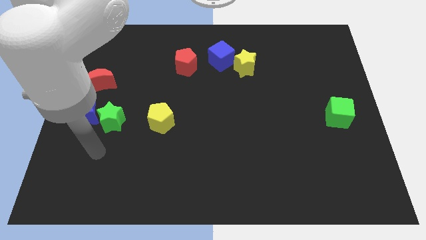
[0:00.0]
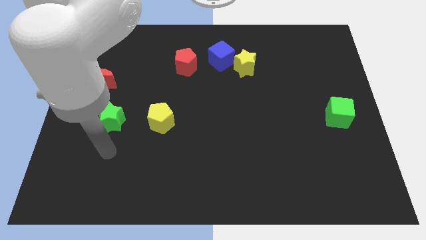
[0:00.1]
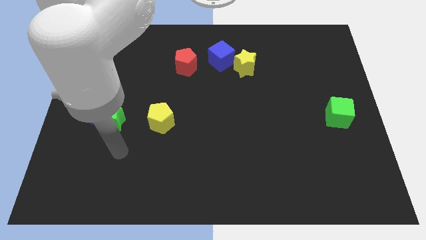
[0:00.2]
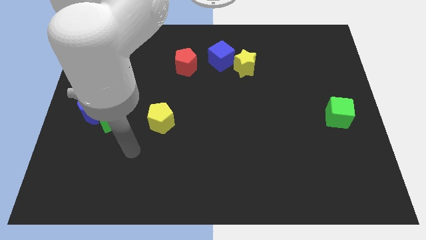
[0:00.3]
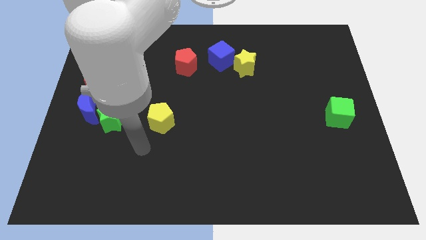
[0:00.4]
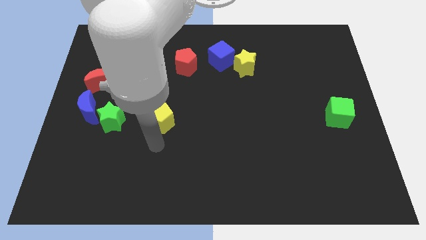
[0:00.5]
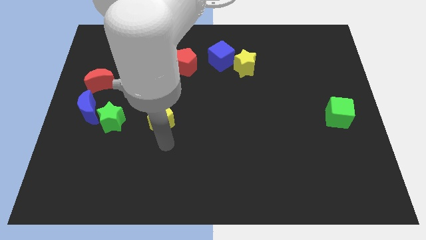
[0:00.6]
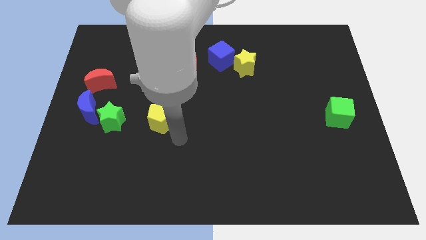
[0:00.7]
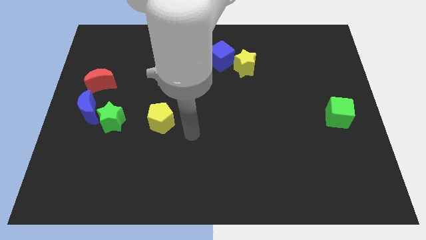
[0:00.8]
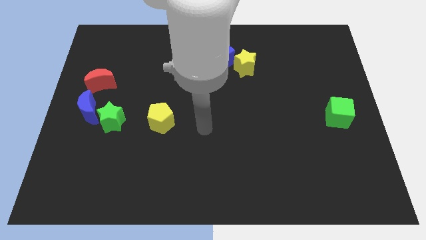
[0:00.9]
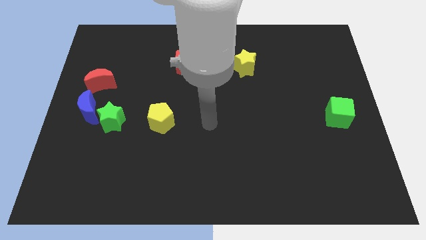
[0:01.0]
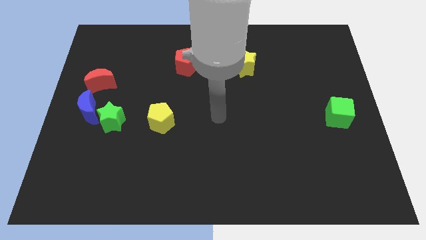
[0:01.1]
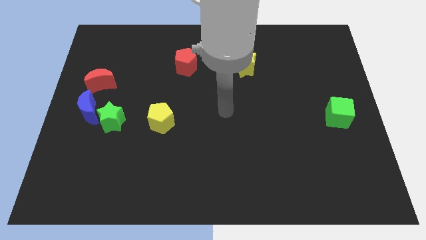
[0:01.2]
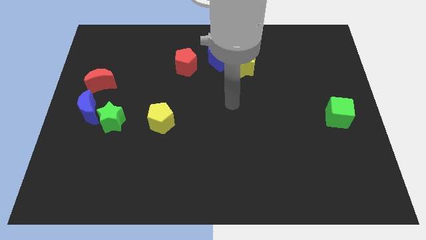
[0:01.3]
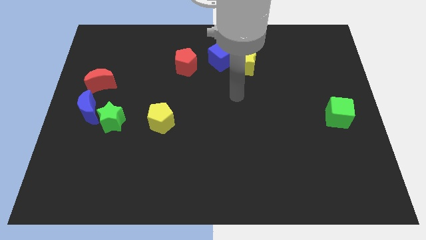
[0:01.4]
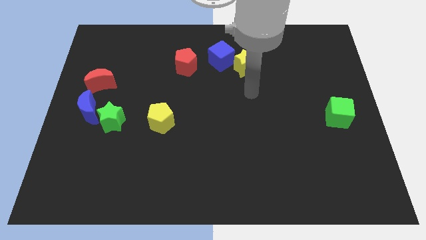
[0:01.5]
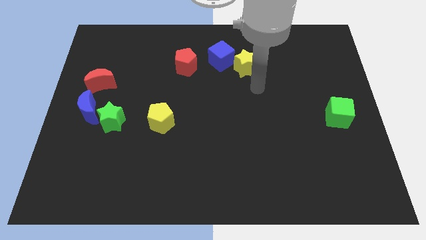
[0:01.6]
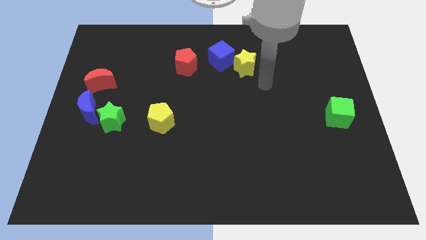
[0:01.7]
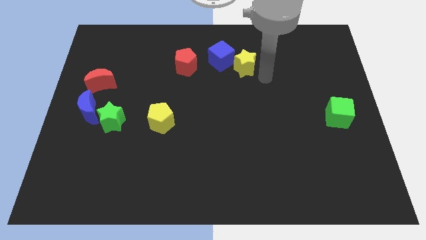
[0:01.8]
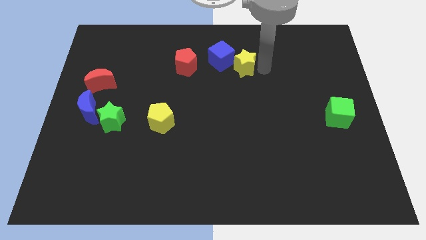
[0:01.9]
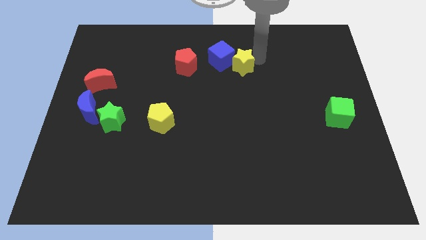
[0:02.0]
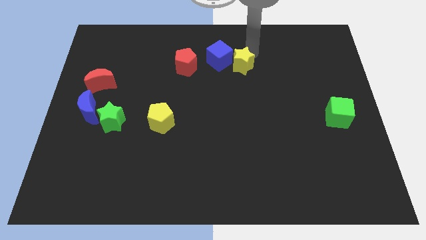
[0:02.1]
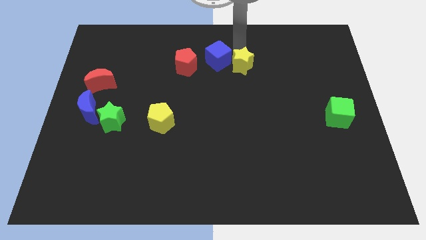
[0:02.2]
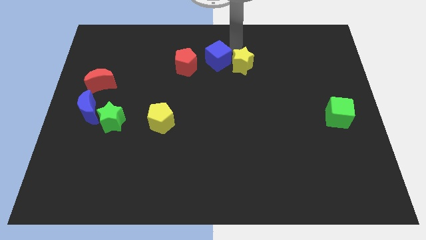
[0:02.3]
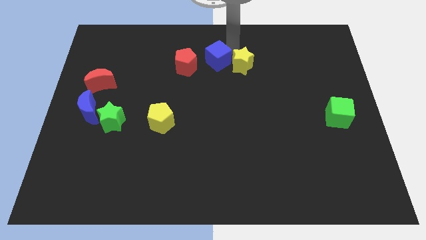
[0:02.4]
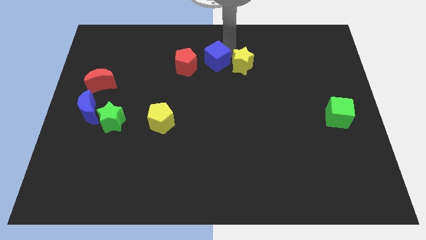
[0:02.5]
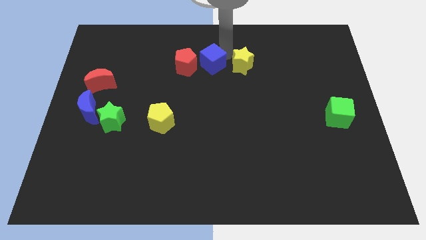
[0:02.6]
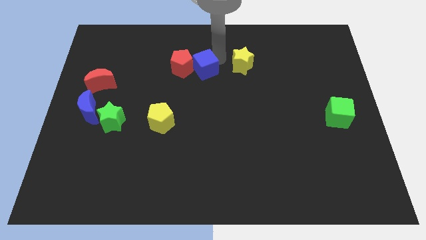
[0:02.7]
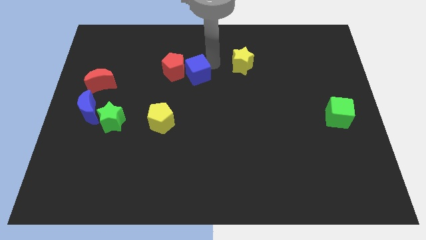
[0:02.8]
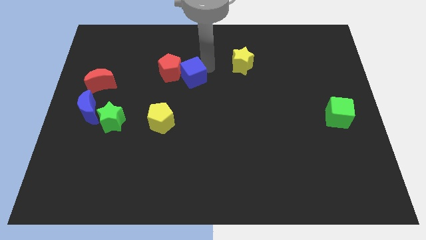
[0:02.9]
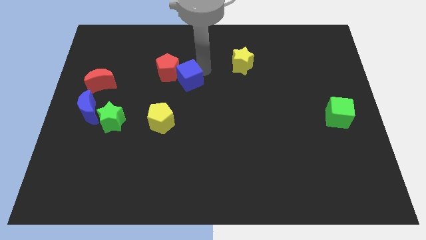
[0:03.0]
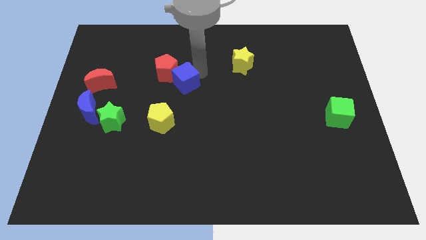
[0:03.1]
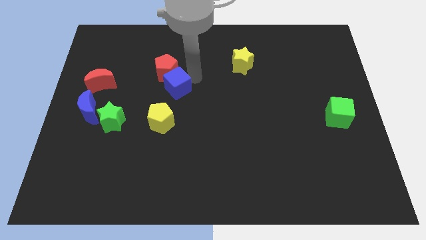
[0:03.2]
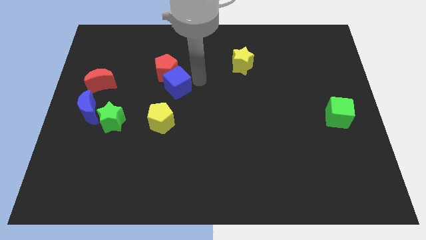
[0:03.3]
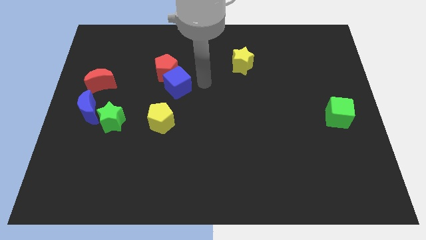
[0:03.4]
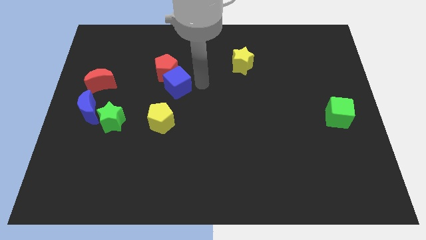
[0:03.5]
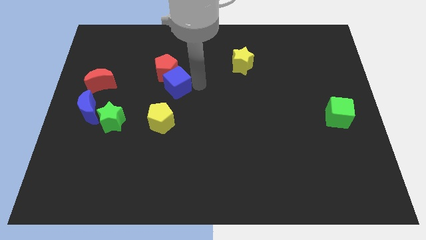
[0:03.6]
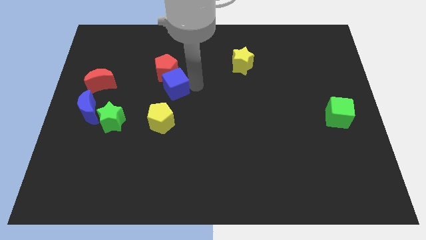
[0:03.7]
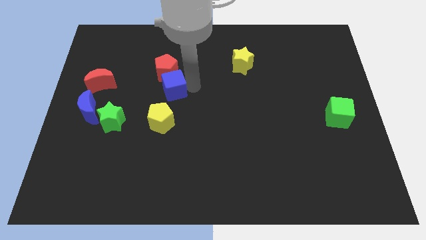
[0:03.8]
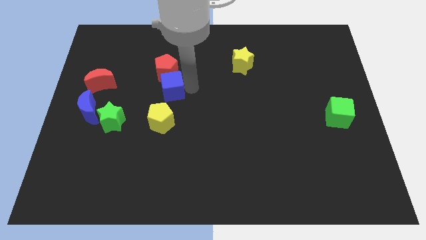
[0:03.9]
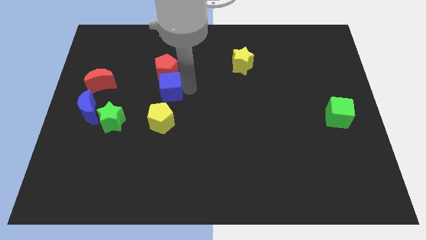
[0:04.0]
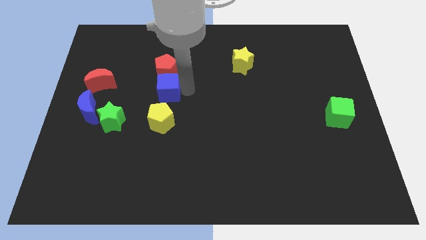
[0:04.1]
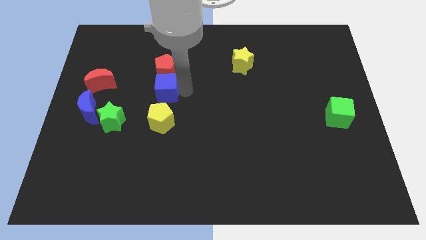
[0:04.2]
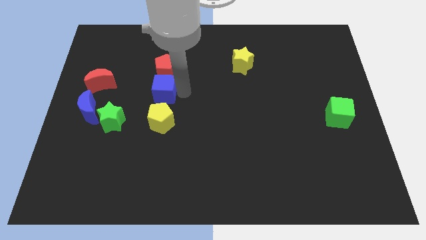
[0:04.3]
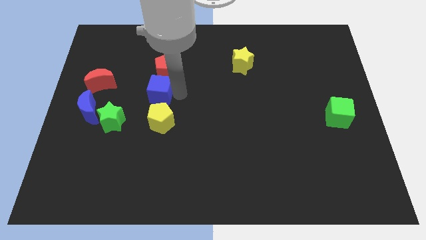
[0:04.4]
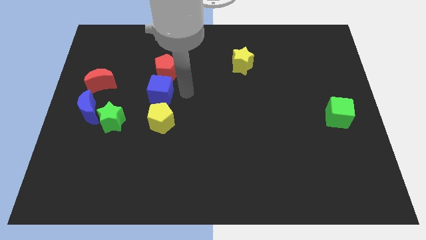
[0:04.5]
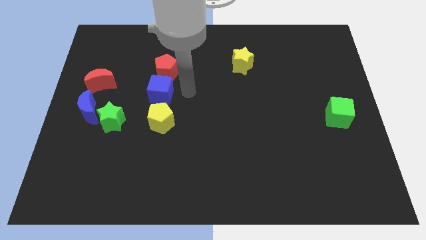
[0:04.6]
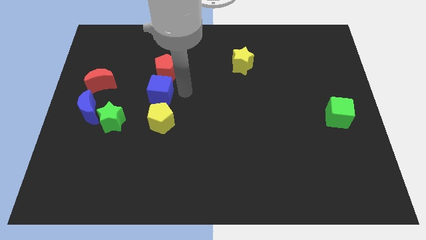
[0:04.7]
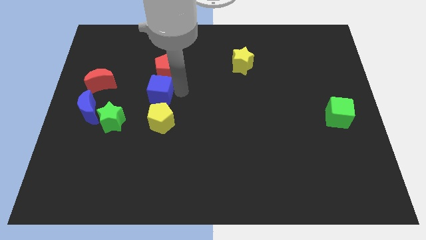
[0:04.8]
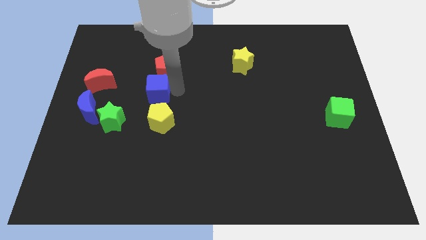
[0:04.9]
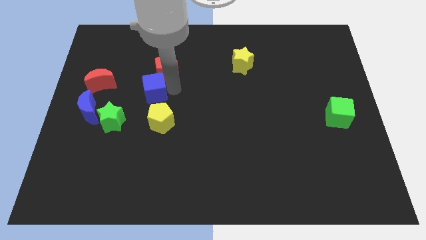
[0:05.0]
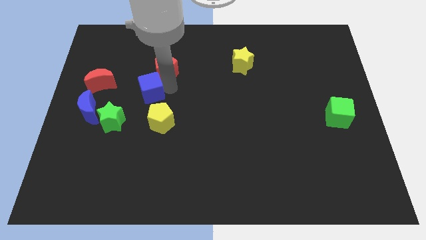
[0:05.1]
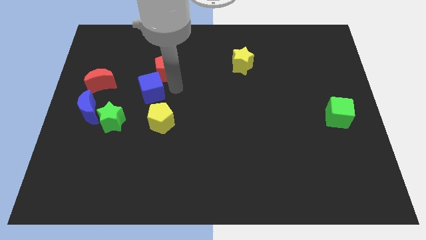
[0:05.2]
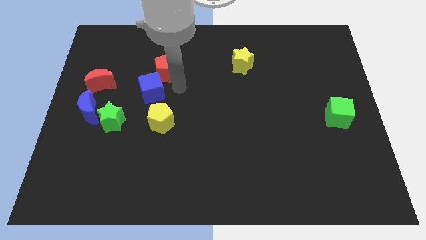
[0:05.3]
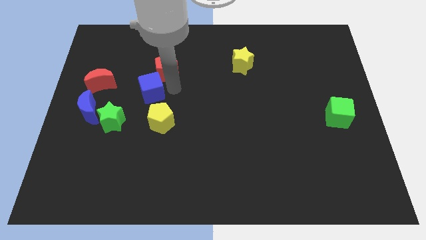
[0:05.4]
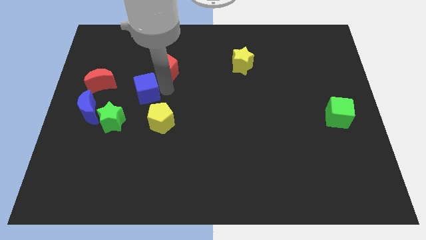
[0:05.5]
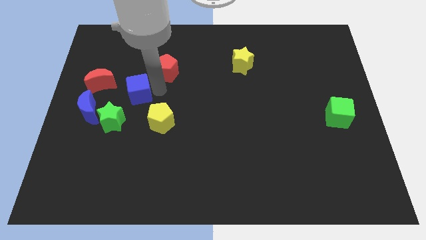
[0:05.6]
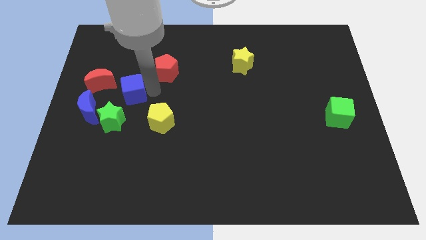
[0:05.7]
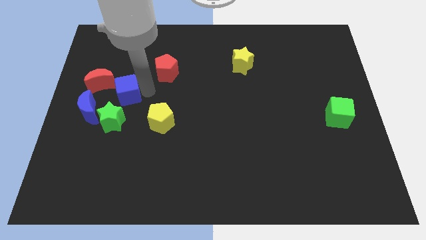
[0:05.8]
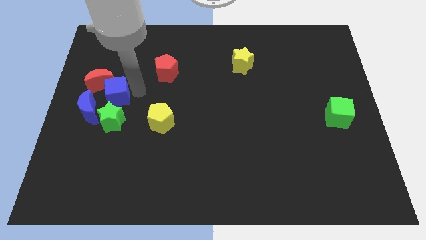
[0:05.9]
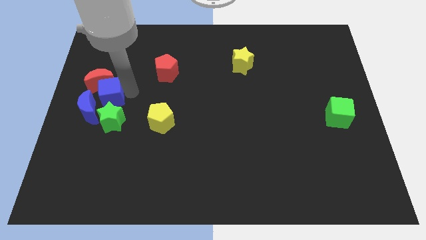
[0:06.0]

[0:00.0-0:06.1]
slide the blue cube to the top left of the green star
